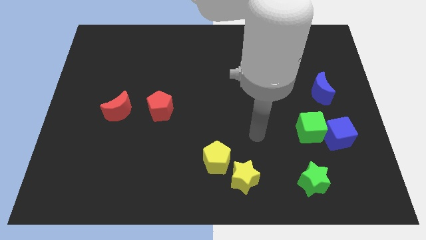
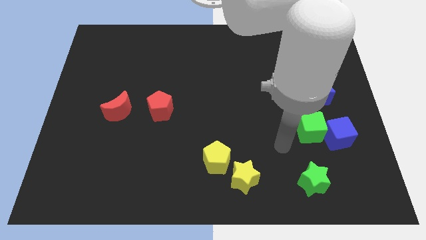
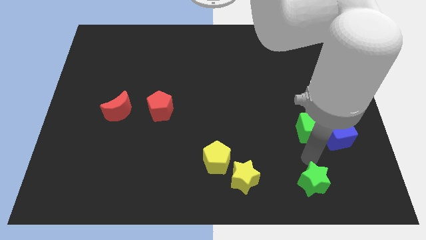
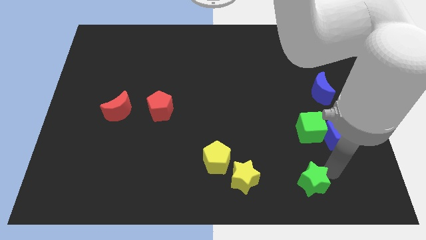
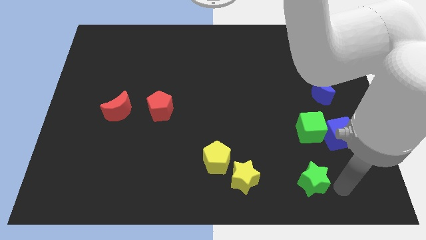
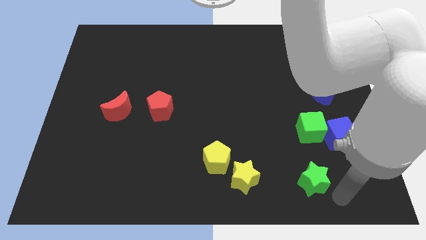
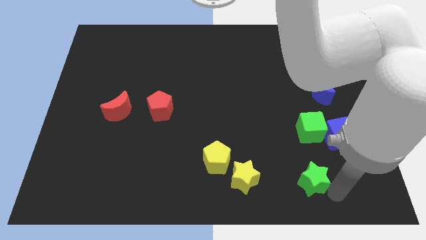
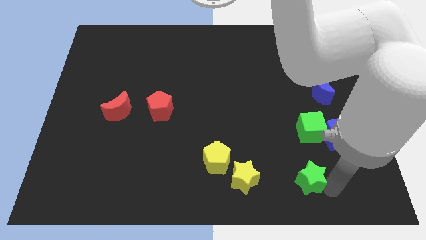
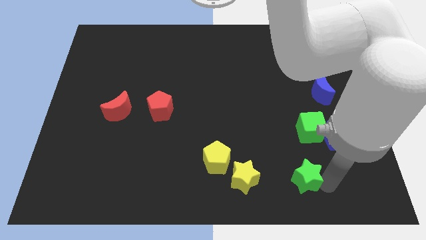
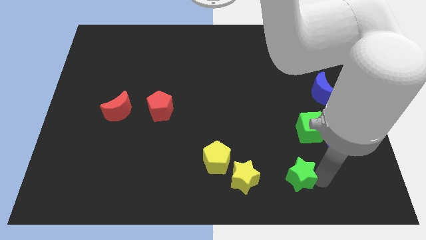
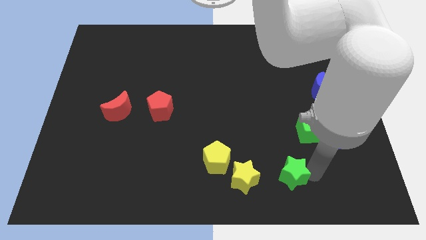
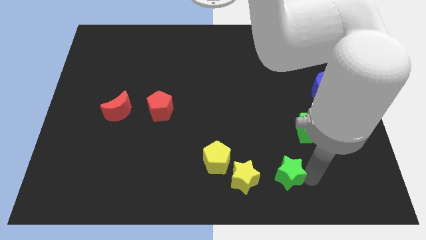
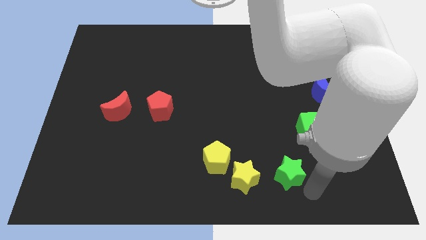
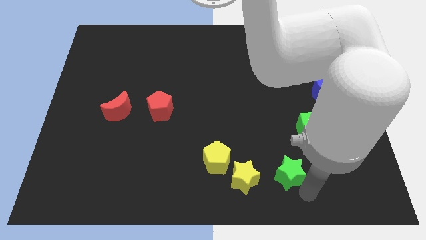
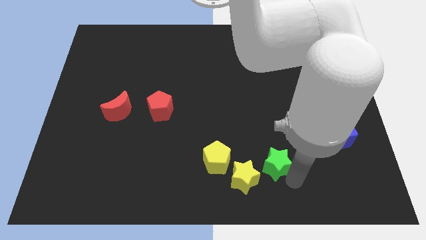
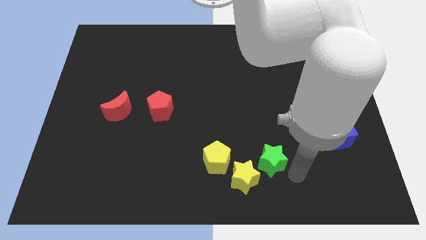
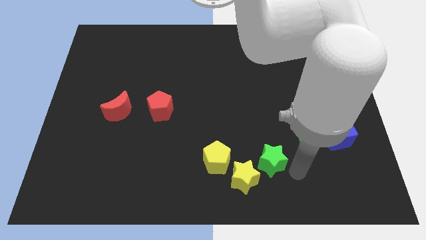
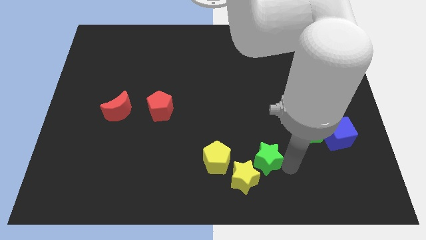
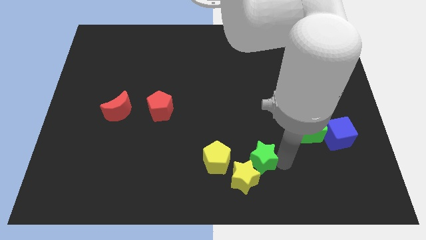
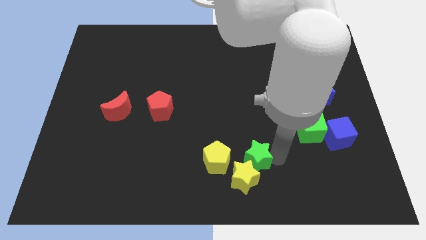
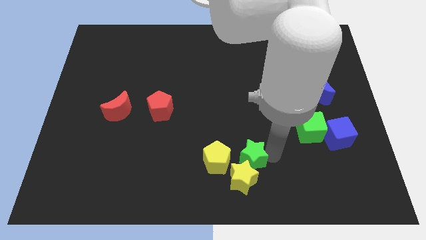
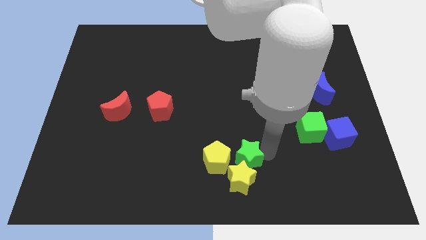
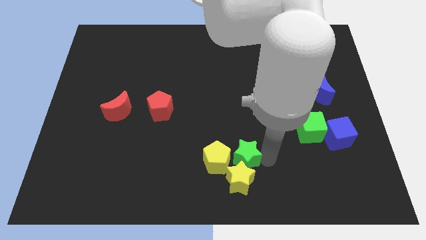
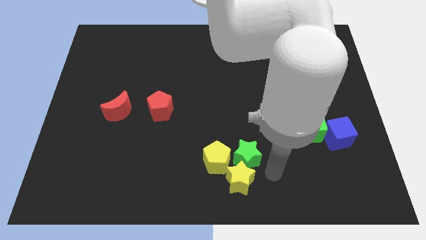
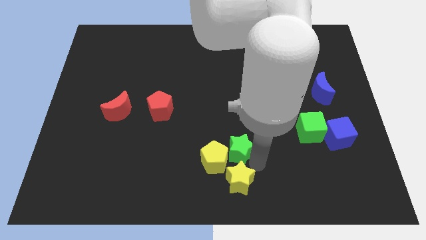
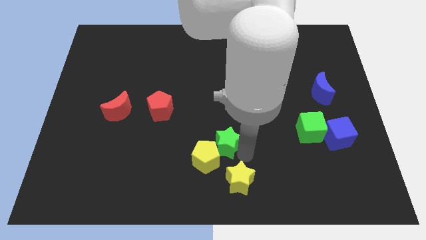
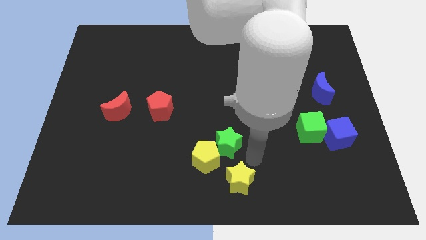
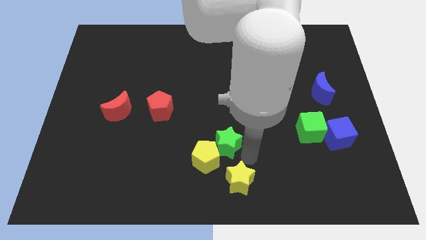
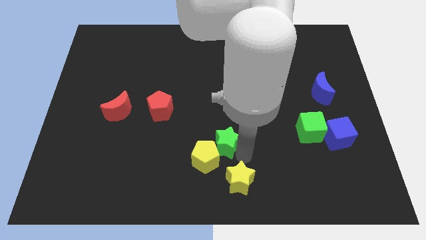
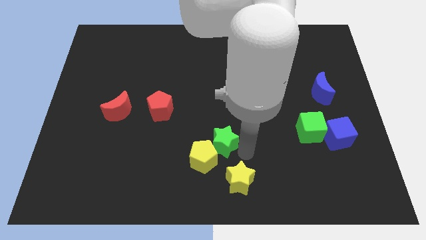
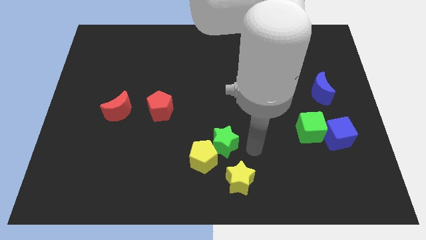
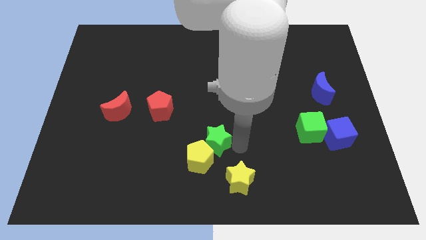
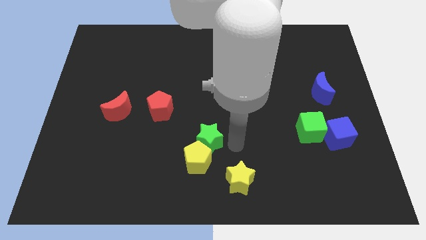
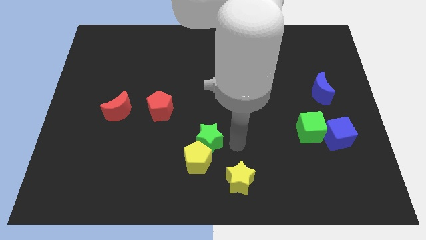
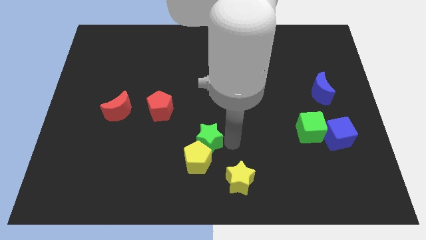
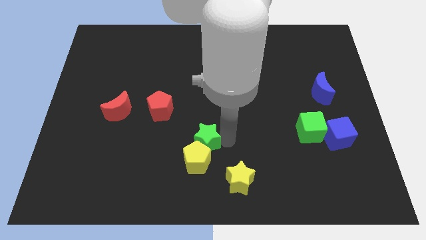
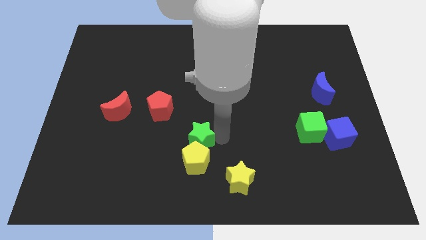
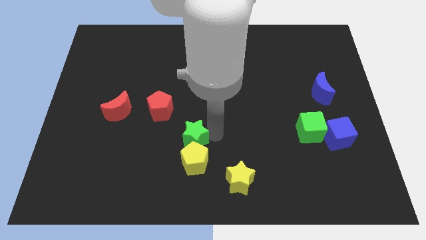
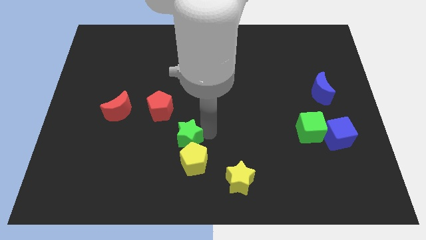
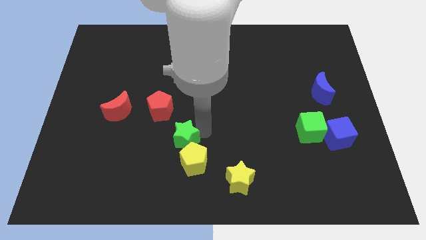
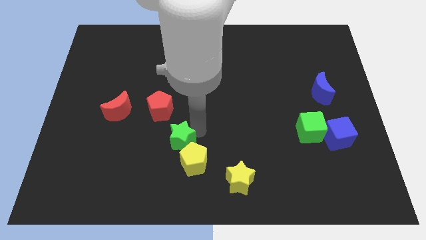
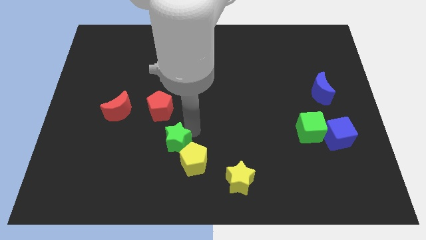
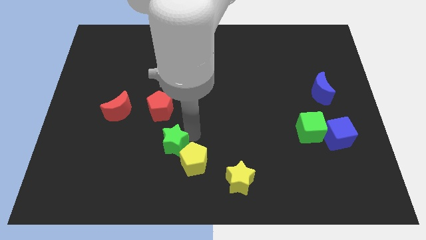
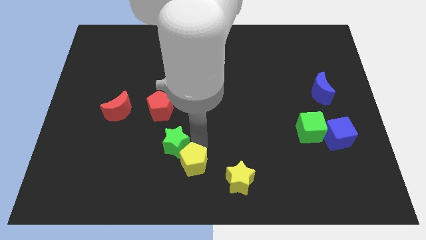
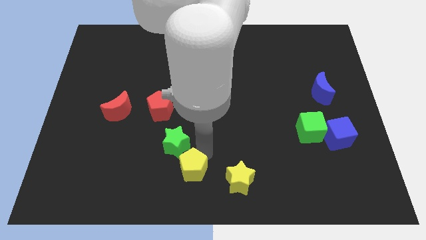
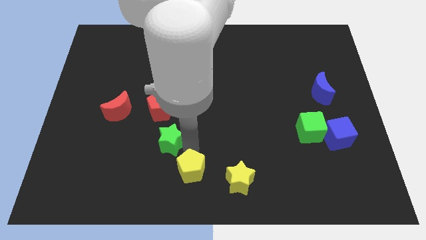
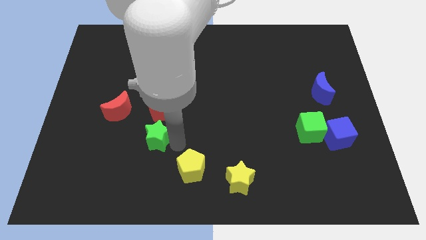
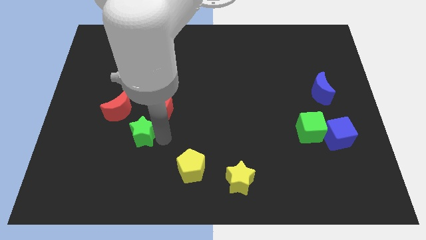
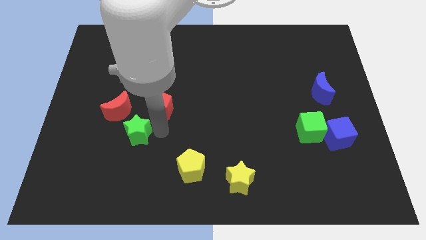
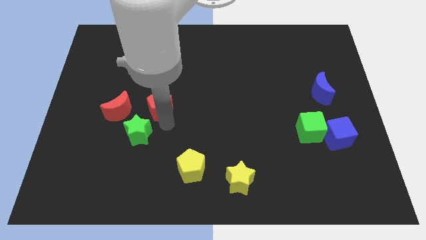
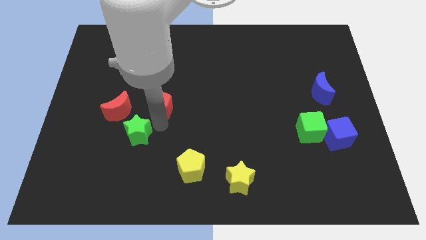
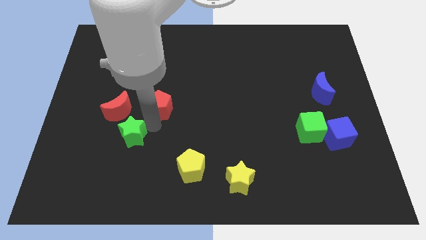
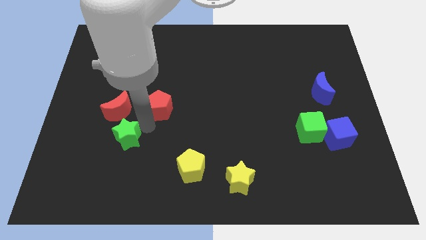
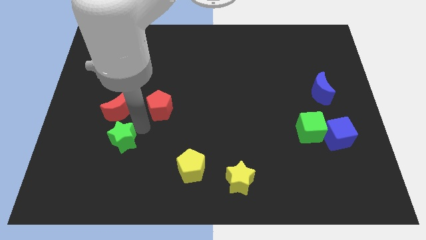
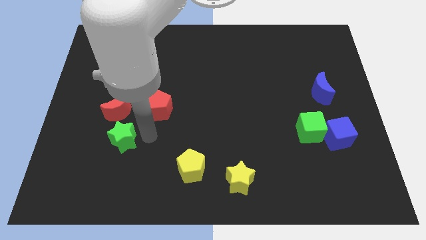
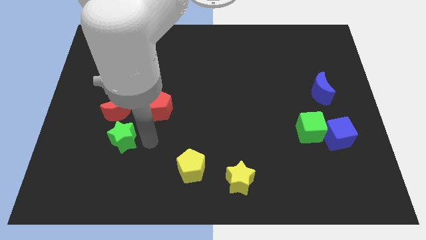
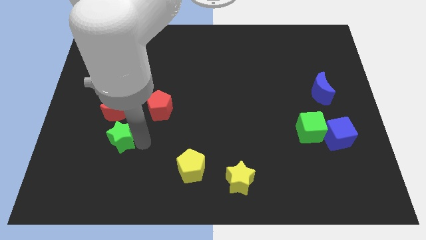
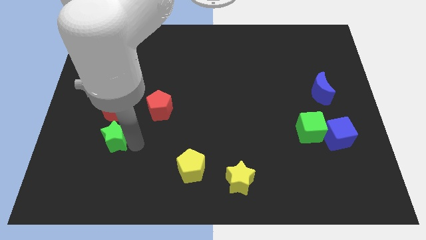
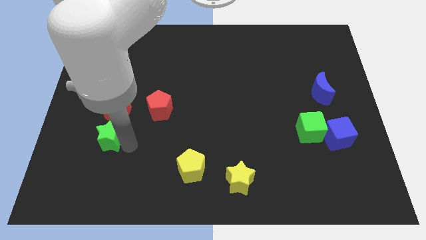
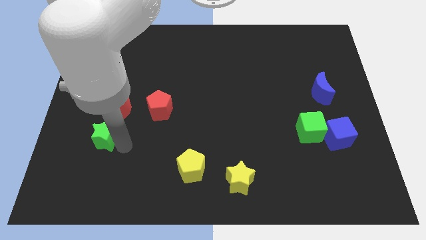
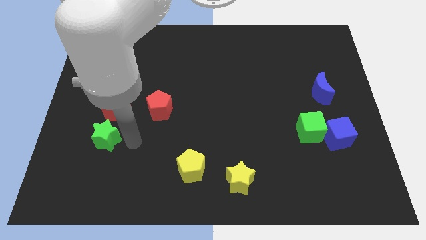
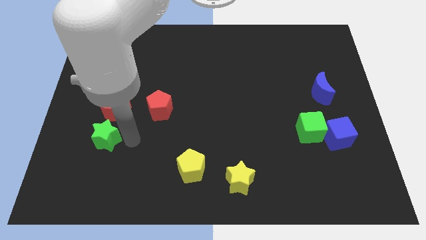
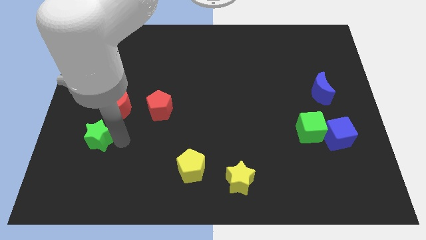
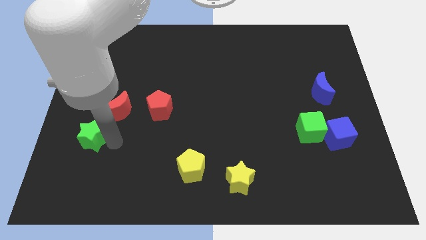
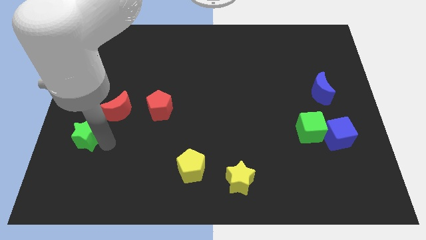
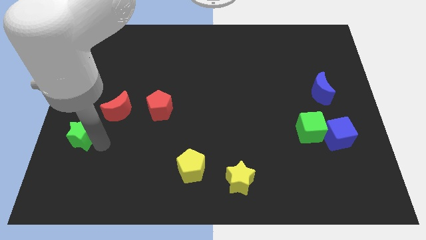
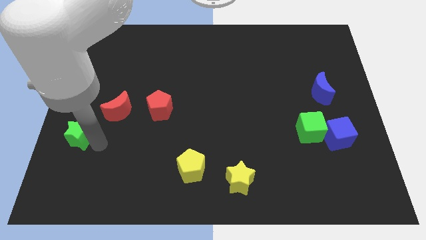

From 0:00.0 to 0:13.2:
push the green star to the left side of the board

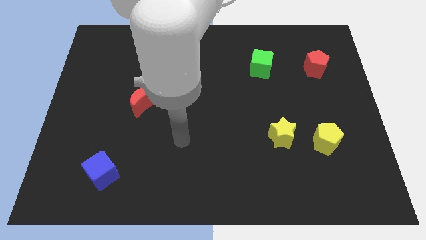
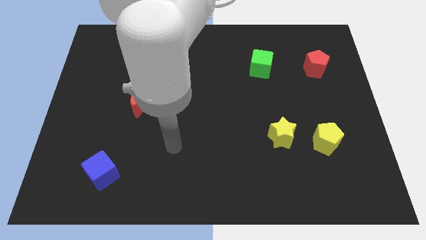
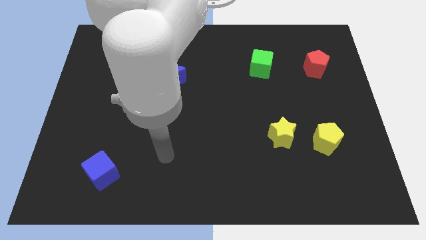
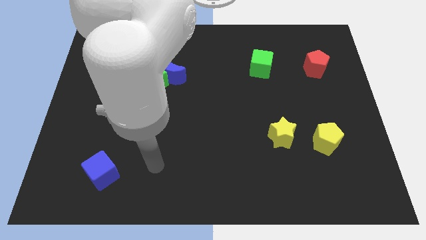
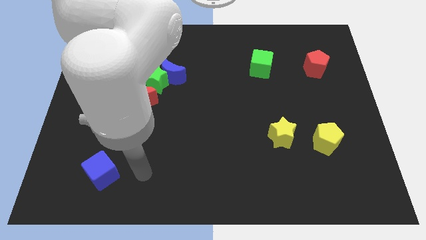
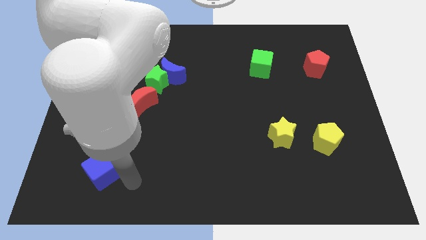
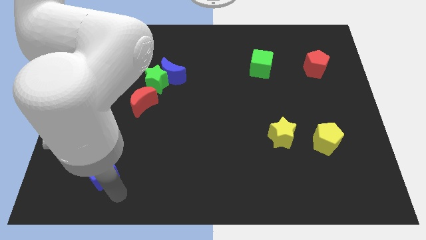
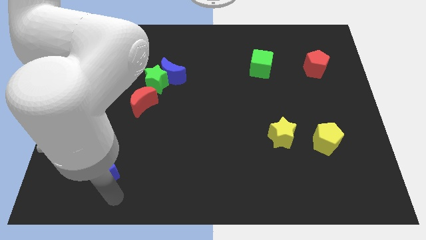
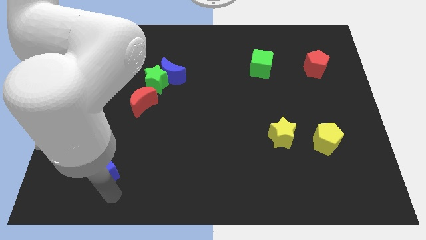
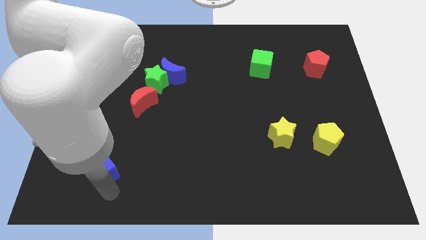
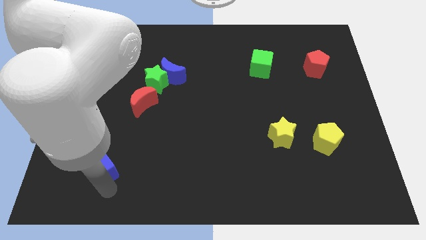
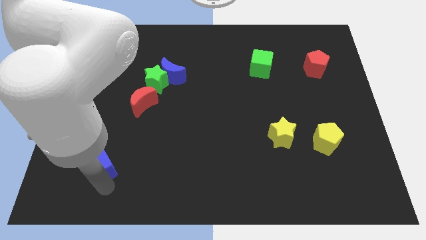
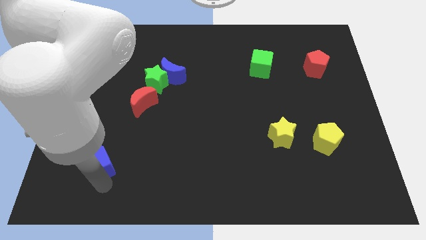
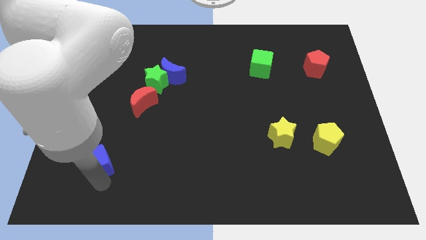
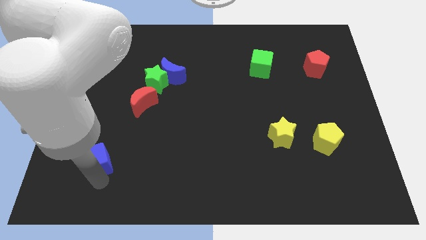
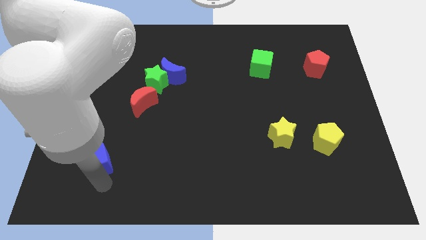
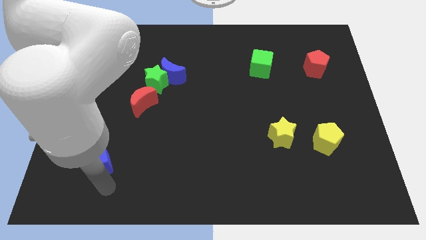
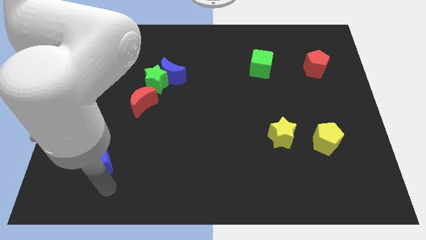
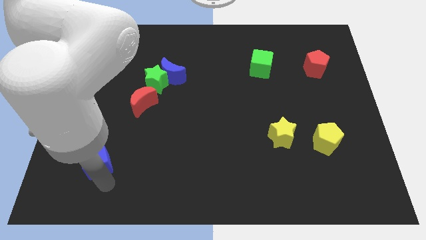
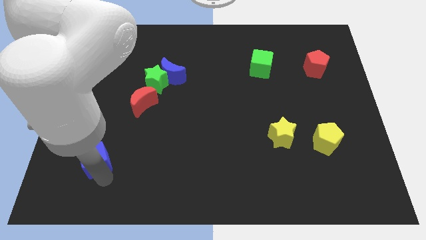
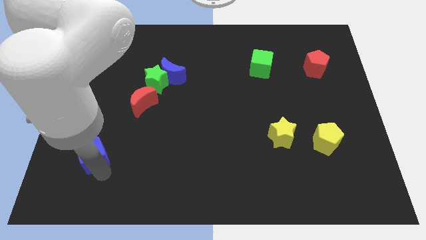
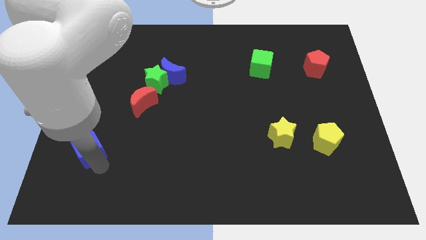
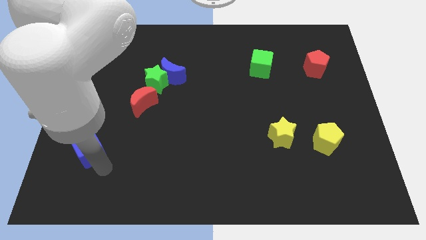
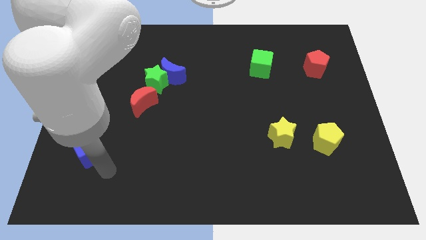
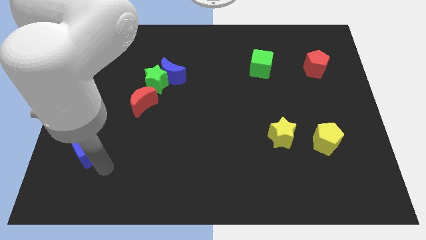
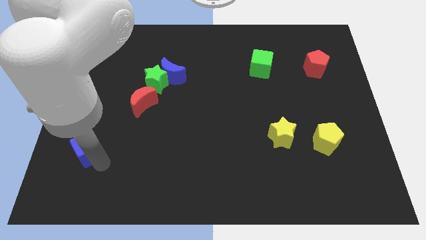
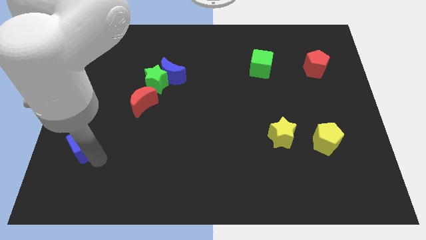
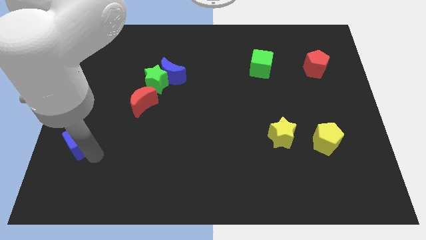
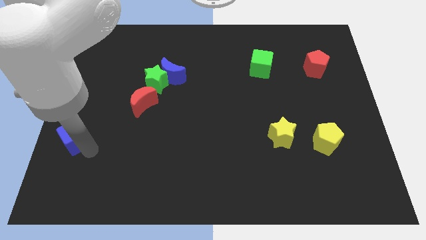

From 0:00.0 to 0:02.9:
push the blue cube to the left side
